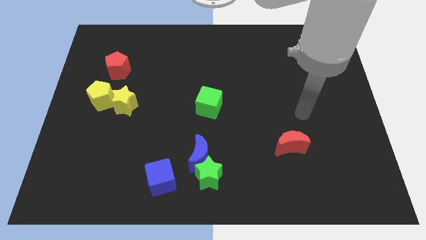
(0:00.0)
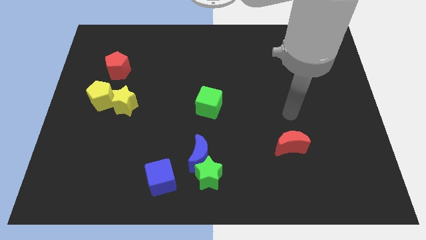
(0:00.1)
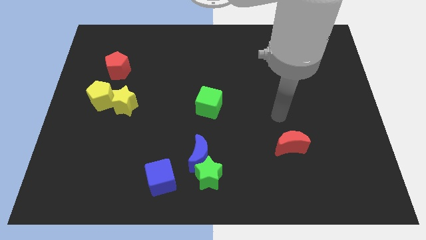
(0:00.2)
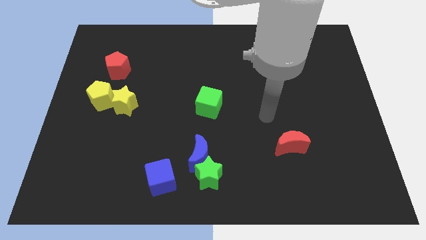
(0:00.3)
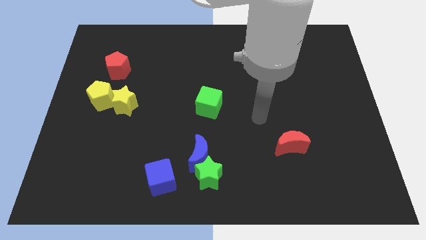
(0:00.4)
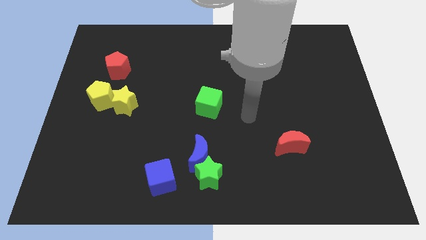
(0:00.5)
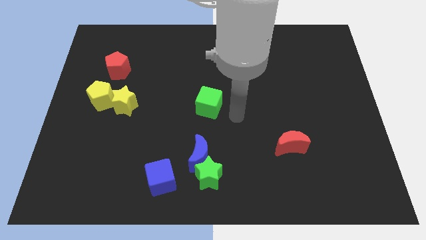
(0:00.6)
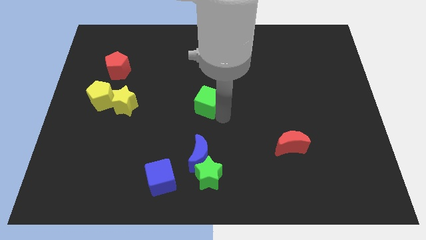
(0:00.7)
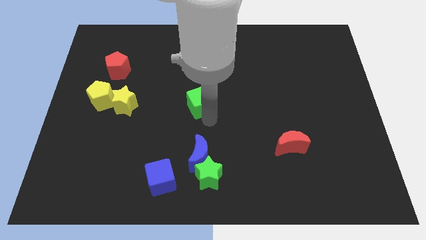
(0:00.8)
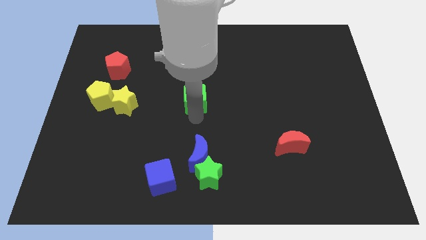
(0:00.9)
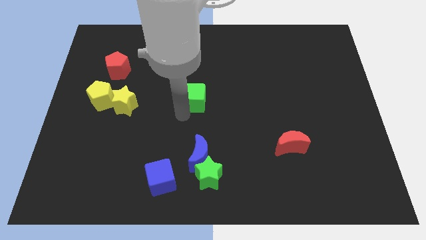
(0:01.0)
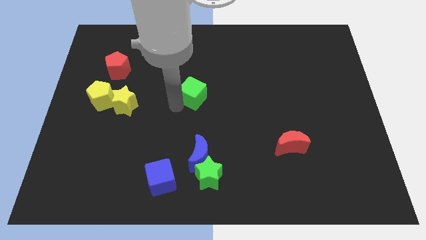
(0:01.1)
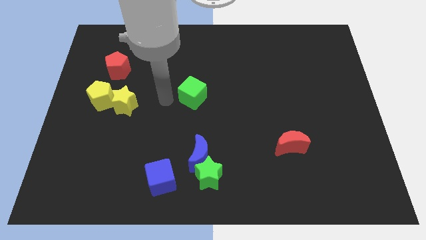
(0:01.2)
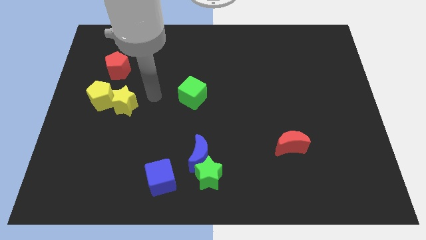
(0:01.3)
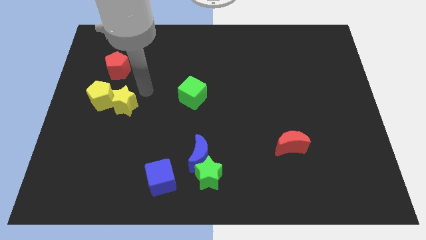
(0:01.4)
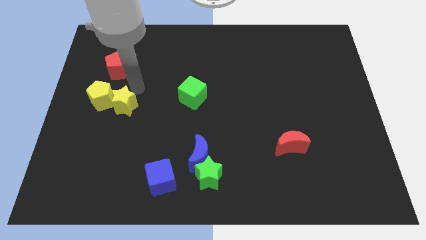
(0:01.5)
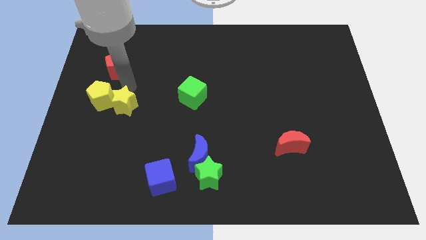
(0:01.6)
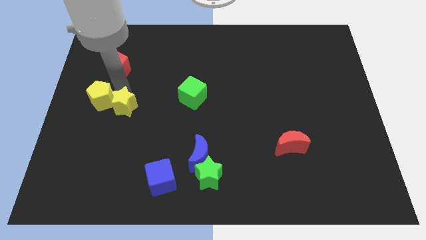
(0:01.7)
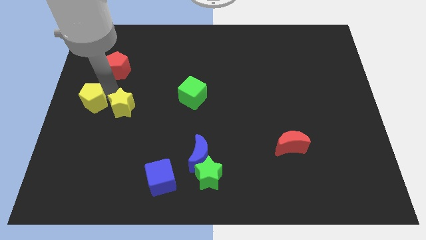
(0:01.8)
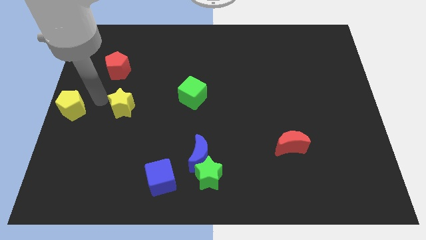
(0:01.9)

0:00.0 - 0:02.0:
separate the yellow star from the yellow pentagon

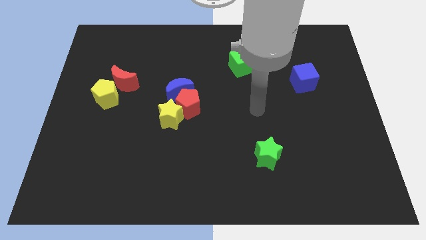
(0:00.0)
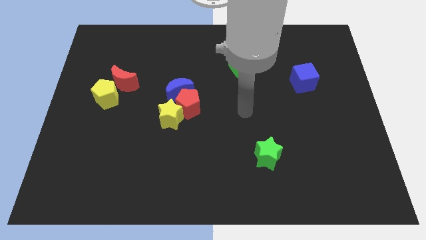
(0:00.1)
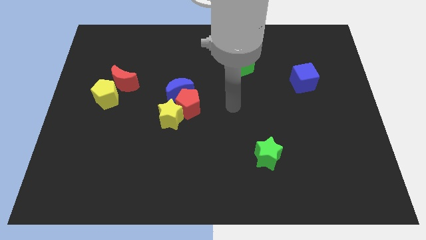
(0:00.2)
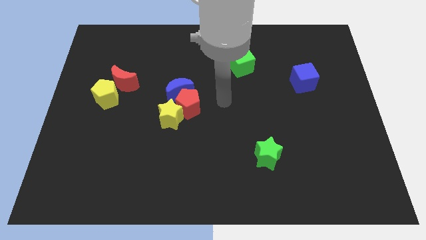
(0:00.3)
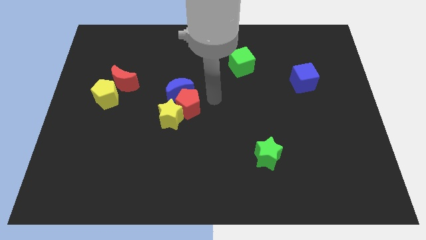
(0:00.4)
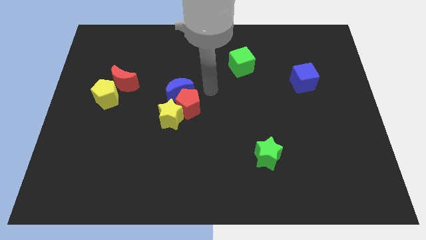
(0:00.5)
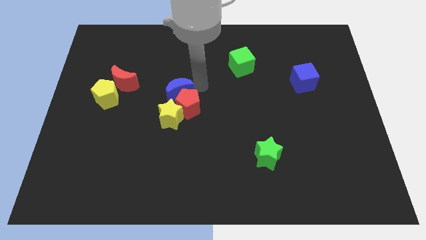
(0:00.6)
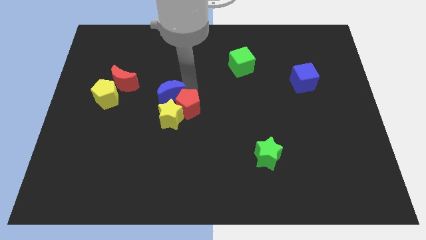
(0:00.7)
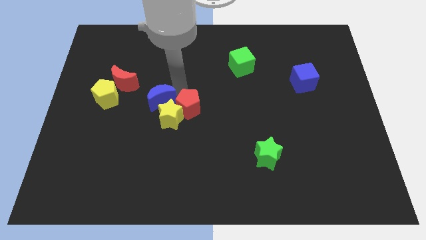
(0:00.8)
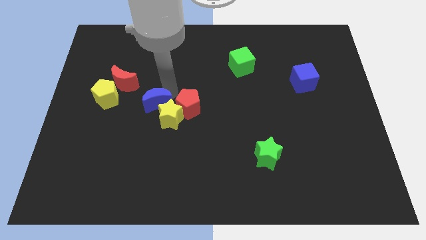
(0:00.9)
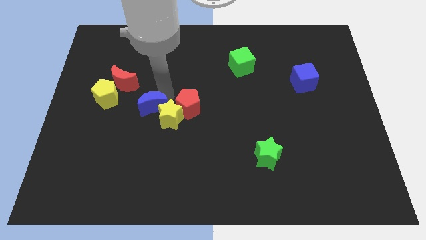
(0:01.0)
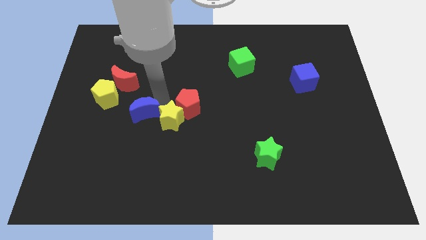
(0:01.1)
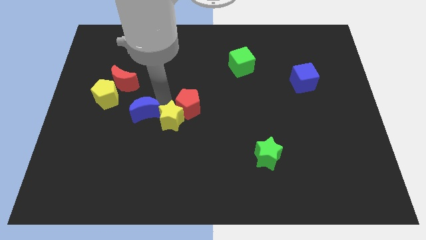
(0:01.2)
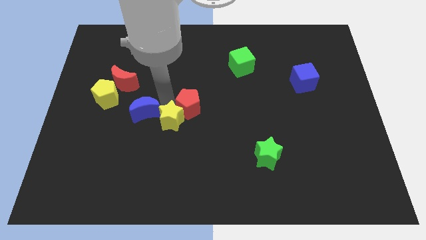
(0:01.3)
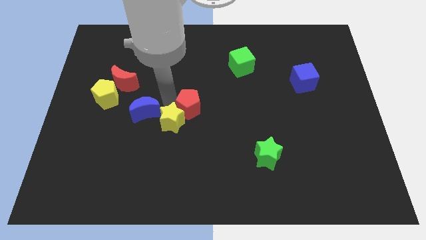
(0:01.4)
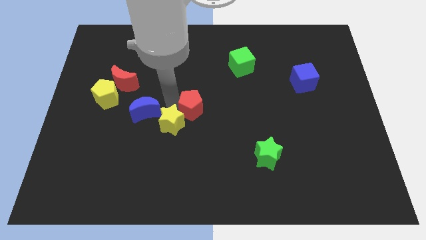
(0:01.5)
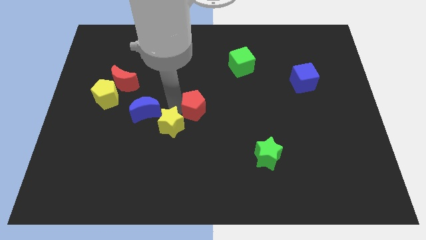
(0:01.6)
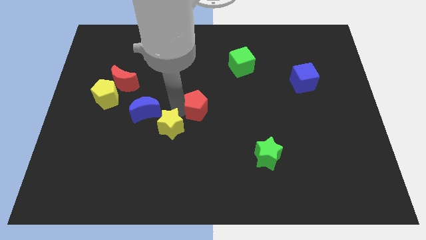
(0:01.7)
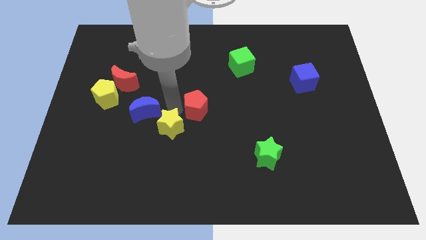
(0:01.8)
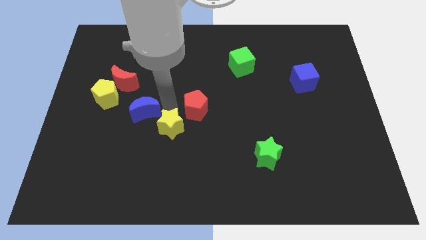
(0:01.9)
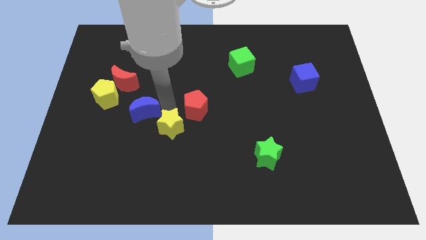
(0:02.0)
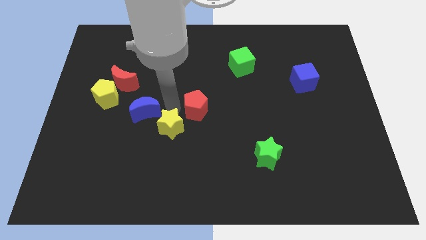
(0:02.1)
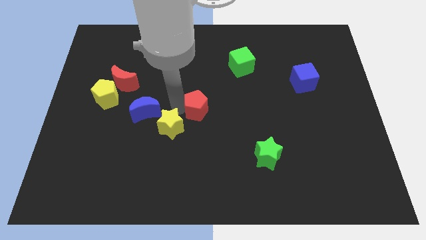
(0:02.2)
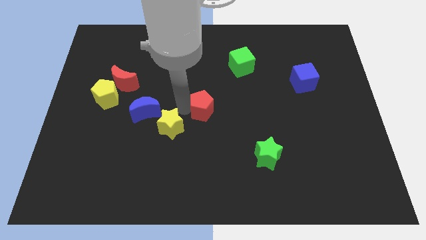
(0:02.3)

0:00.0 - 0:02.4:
move the red pentagon away from the blue moon and yellow star

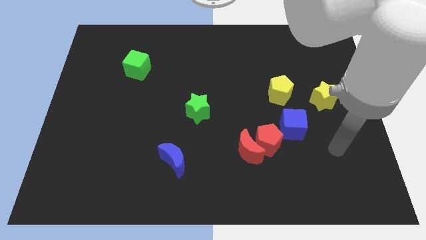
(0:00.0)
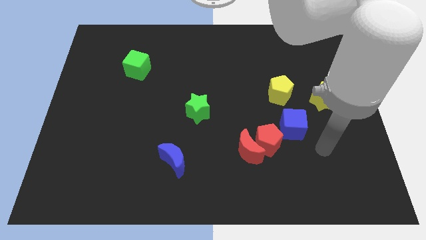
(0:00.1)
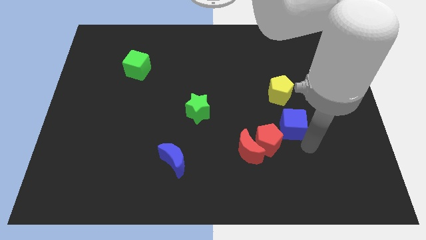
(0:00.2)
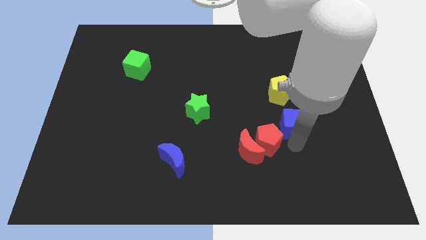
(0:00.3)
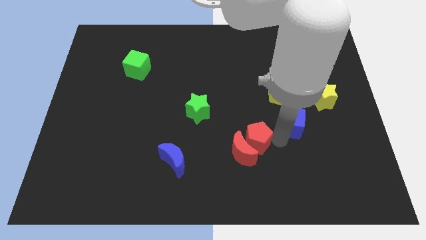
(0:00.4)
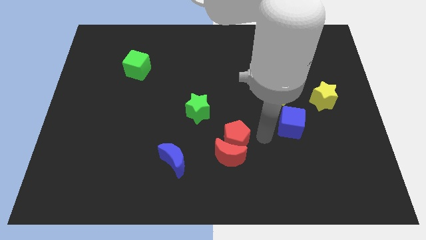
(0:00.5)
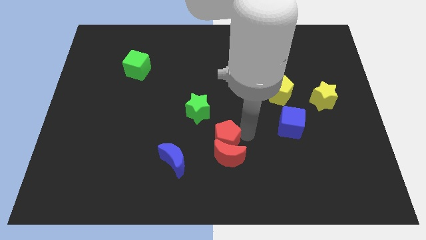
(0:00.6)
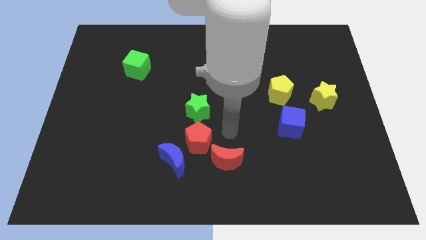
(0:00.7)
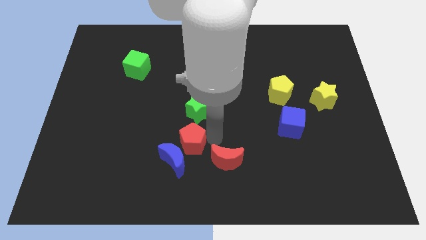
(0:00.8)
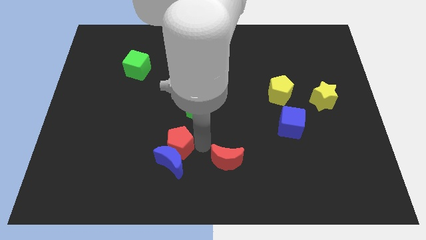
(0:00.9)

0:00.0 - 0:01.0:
pull the red moon apart from the red pentagon

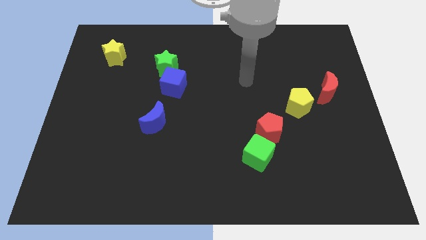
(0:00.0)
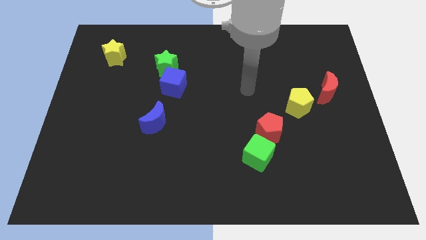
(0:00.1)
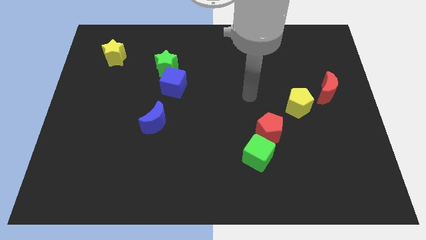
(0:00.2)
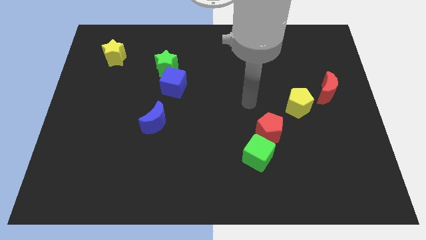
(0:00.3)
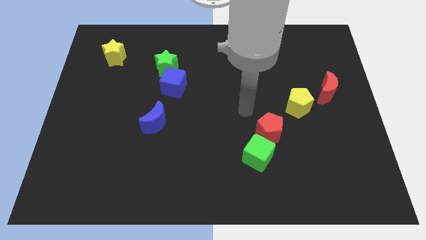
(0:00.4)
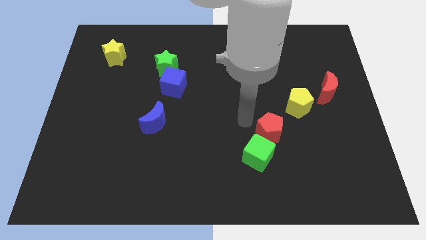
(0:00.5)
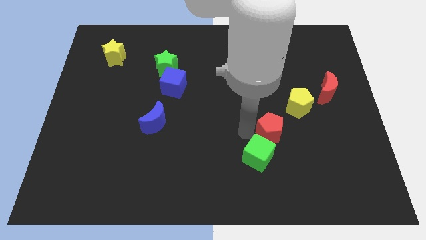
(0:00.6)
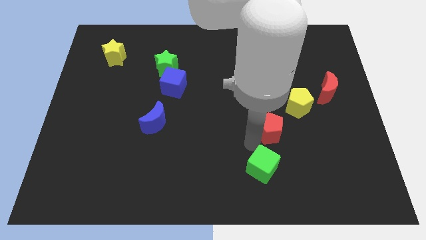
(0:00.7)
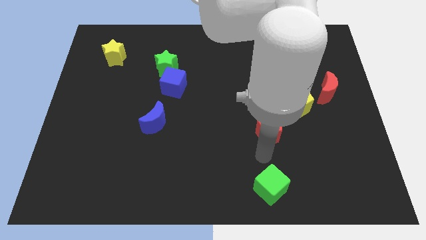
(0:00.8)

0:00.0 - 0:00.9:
pull the red pentagon apart from the green cube

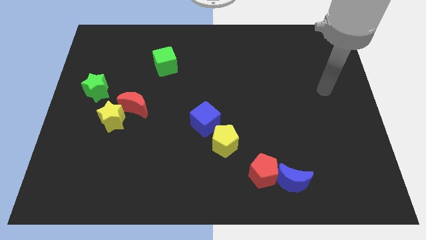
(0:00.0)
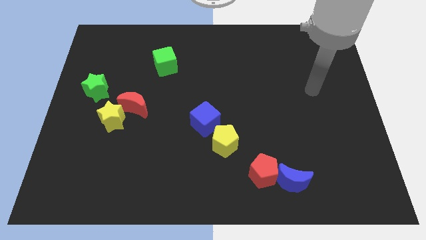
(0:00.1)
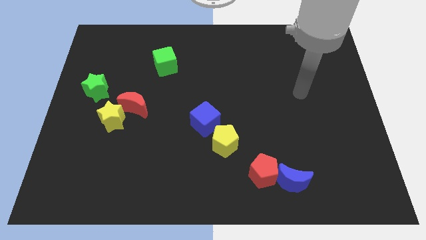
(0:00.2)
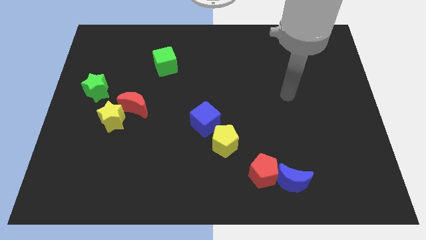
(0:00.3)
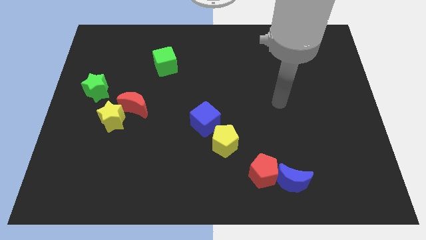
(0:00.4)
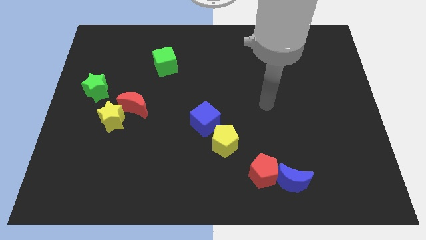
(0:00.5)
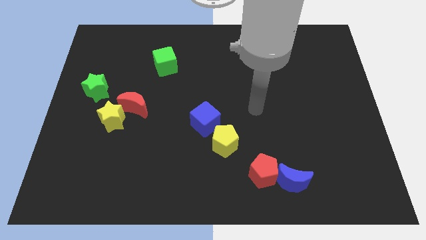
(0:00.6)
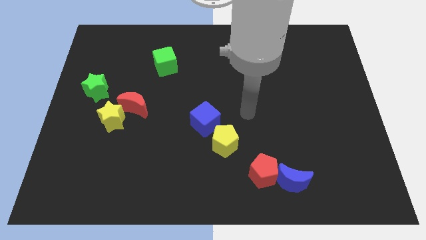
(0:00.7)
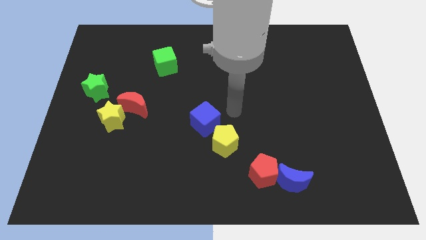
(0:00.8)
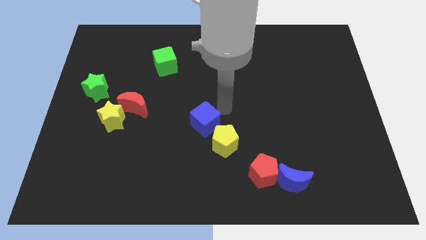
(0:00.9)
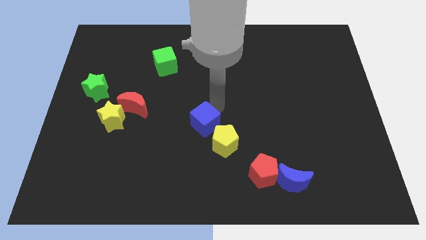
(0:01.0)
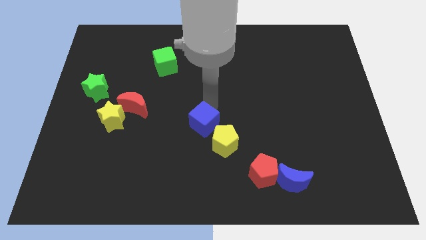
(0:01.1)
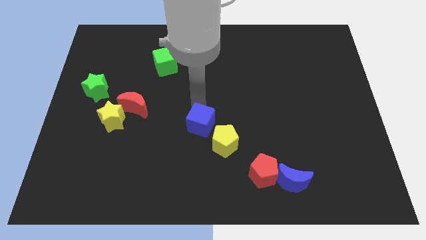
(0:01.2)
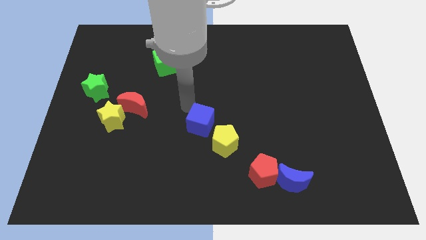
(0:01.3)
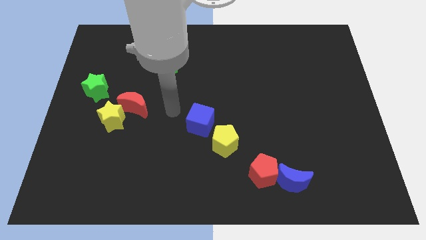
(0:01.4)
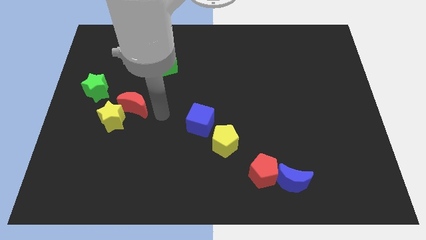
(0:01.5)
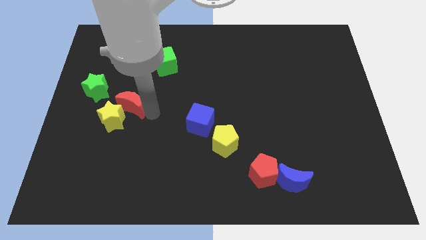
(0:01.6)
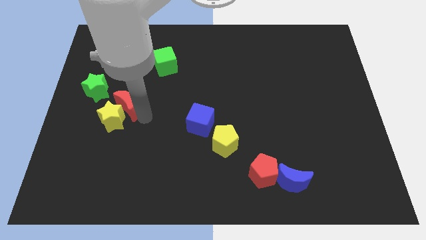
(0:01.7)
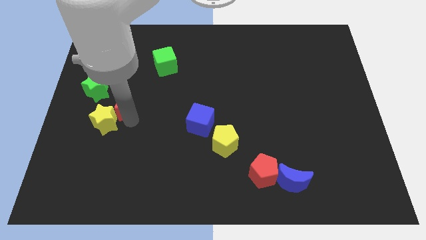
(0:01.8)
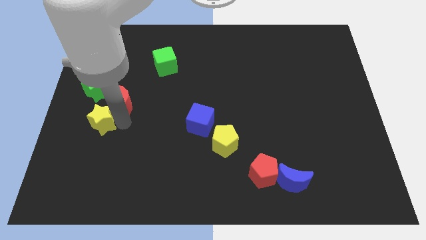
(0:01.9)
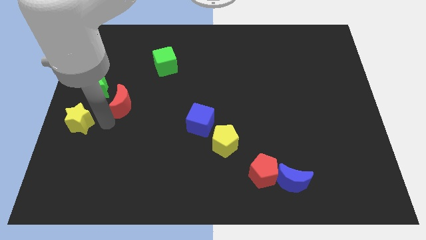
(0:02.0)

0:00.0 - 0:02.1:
move the red moon away from the yellow star

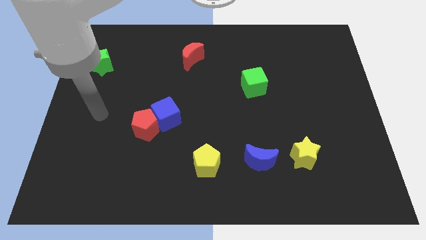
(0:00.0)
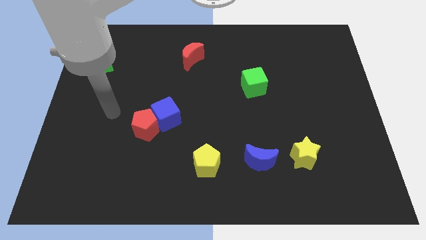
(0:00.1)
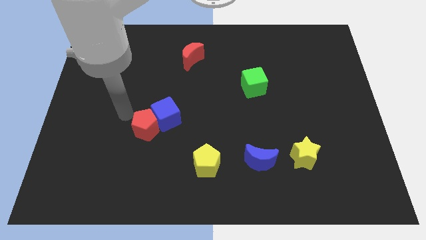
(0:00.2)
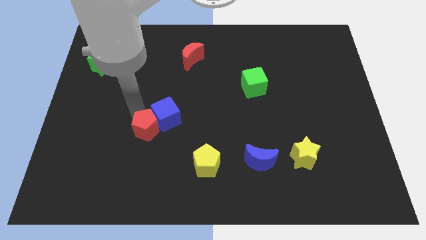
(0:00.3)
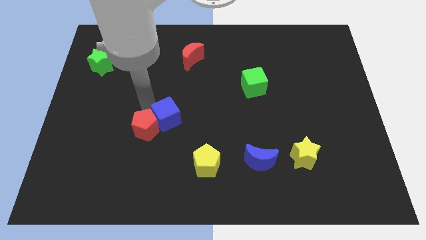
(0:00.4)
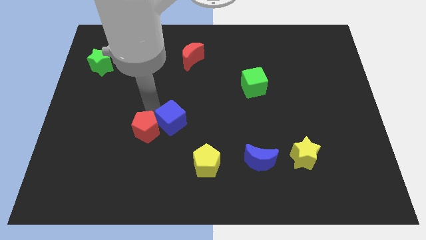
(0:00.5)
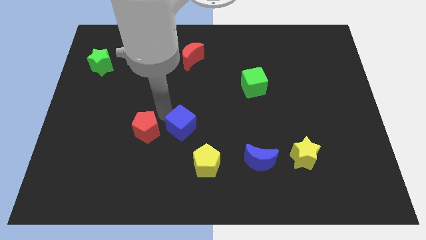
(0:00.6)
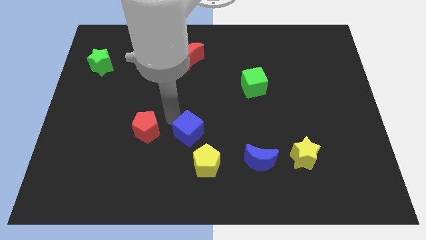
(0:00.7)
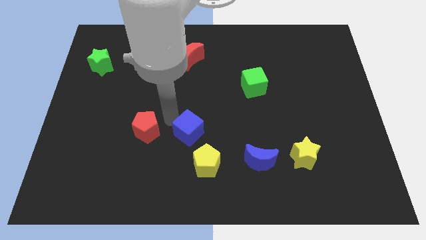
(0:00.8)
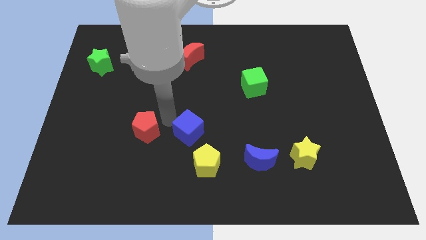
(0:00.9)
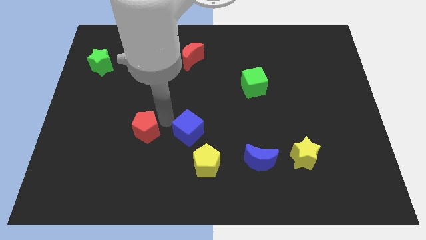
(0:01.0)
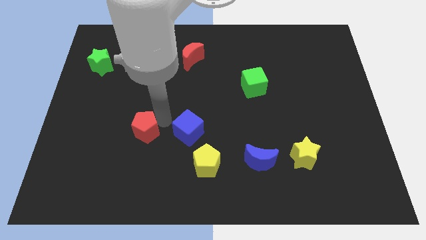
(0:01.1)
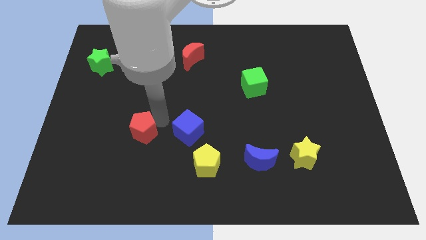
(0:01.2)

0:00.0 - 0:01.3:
pull the red pentagon apart from the blue cube
